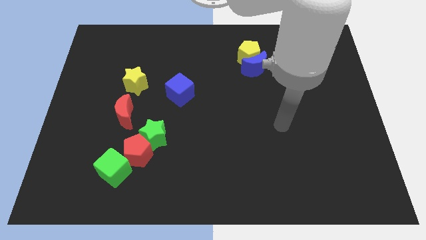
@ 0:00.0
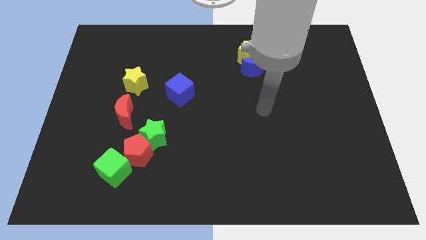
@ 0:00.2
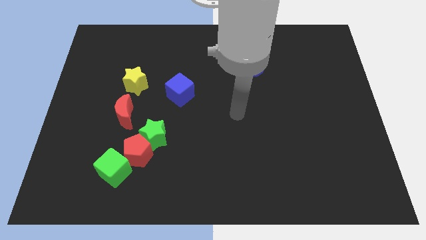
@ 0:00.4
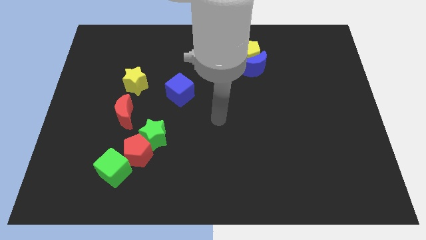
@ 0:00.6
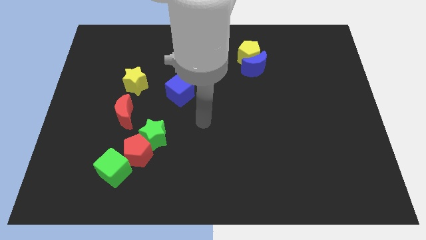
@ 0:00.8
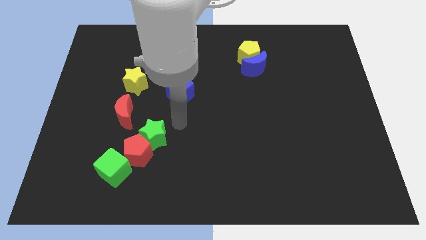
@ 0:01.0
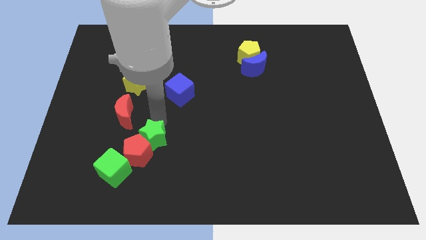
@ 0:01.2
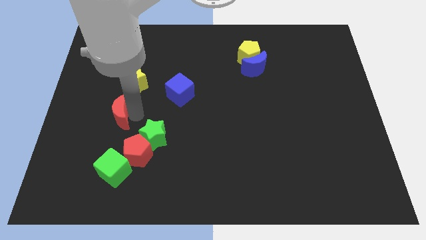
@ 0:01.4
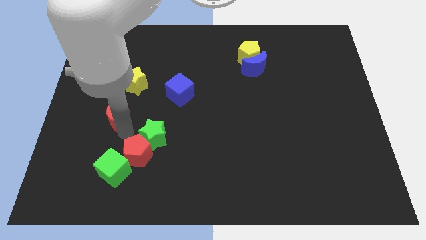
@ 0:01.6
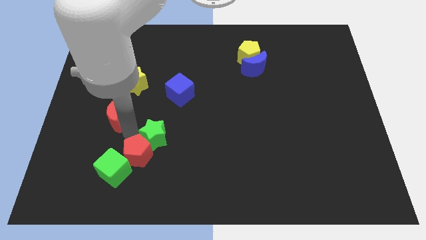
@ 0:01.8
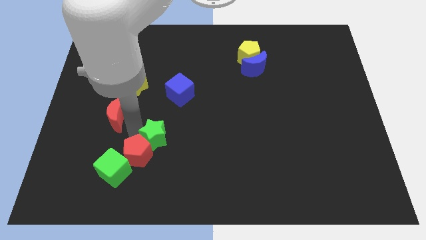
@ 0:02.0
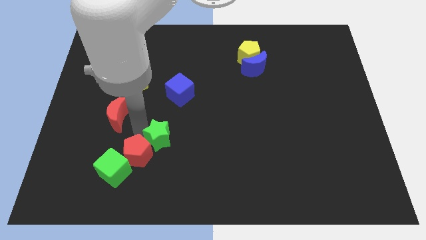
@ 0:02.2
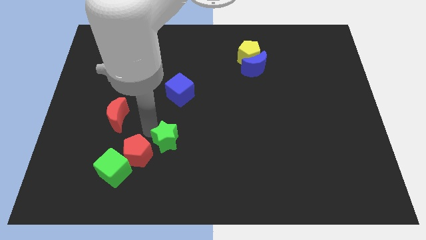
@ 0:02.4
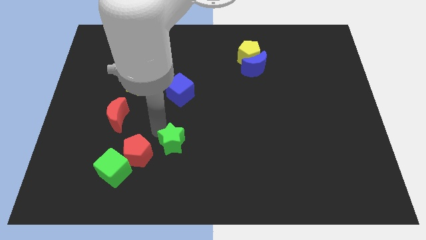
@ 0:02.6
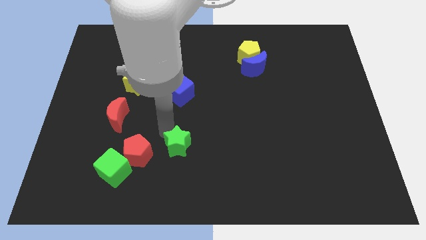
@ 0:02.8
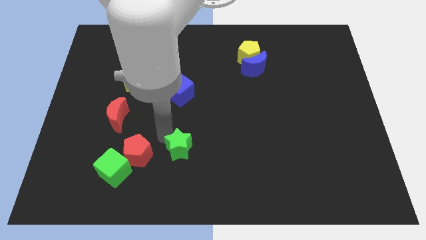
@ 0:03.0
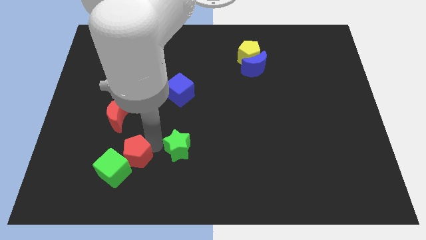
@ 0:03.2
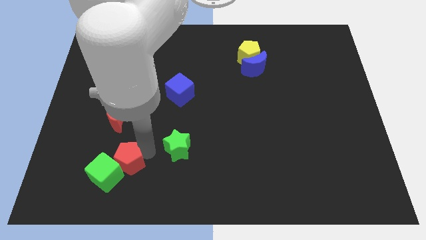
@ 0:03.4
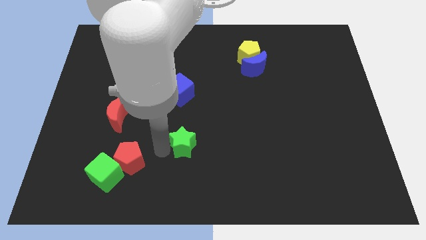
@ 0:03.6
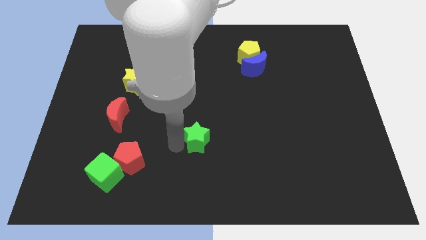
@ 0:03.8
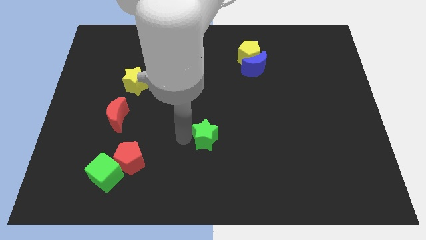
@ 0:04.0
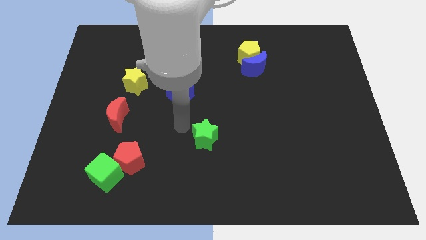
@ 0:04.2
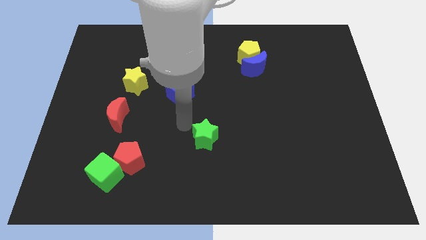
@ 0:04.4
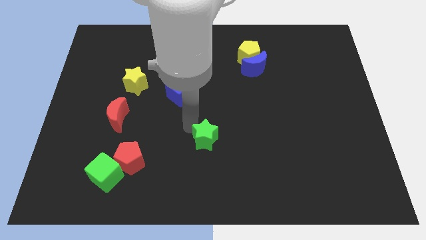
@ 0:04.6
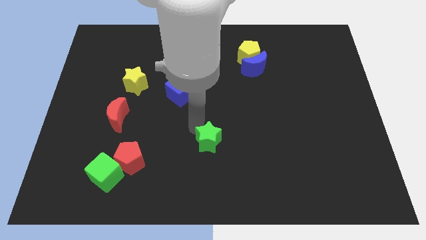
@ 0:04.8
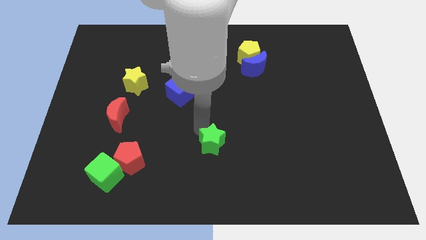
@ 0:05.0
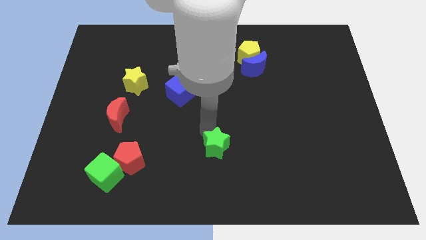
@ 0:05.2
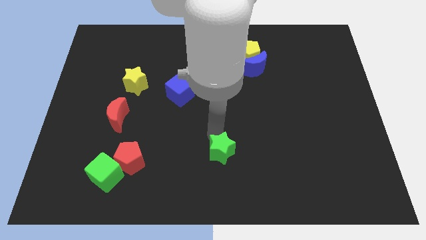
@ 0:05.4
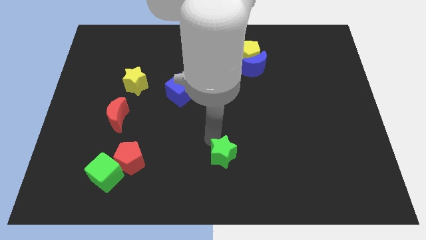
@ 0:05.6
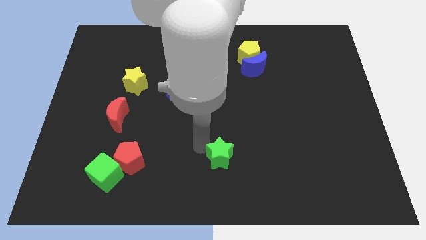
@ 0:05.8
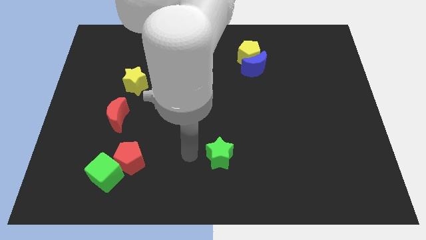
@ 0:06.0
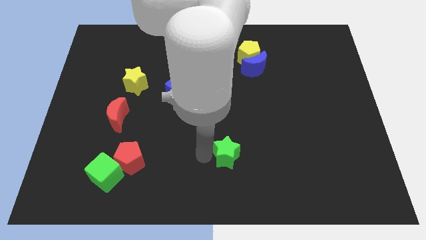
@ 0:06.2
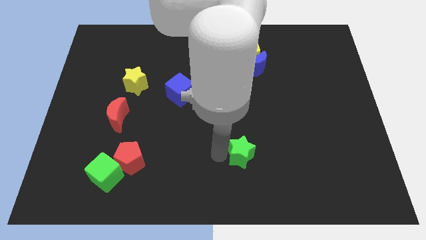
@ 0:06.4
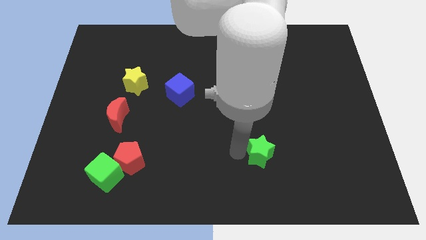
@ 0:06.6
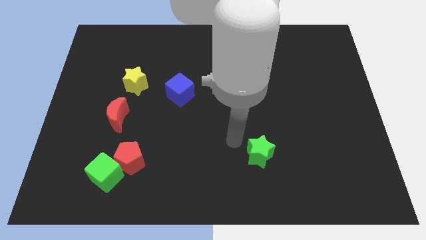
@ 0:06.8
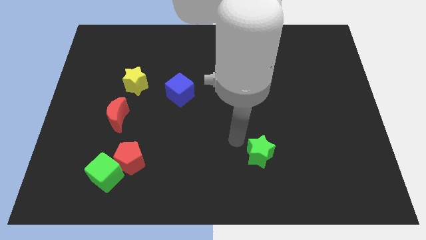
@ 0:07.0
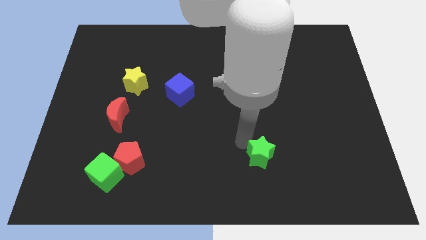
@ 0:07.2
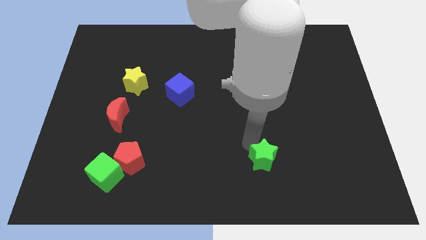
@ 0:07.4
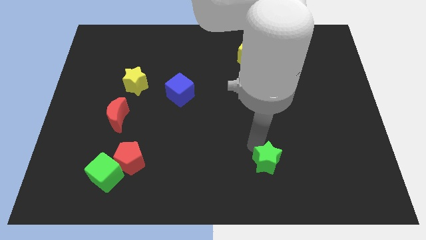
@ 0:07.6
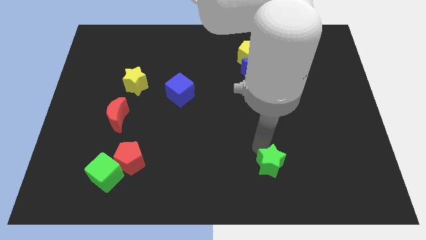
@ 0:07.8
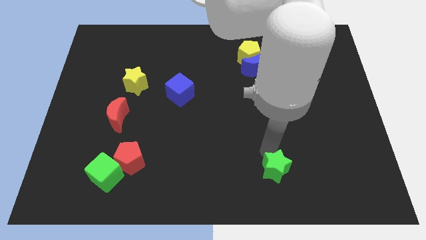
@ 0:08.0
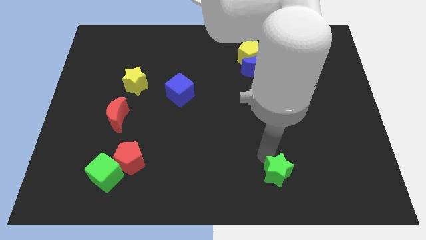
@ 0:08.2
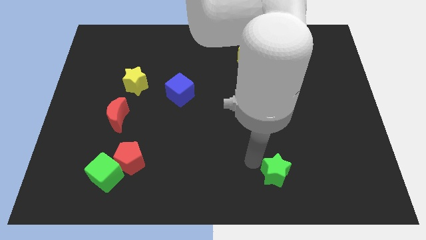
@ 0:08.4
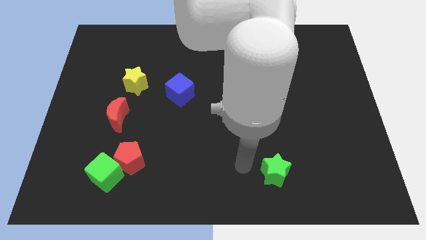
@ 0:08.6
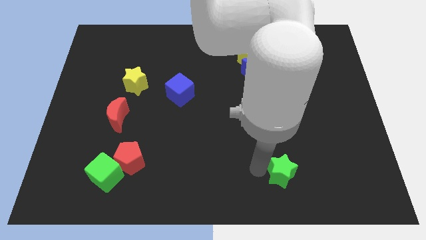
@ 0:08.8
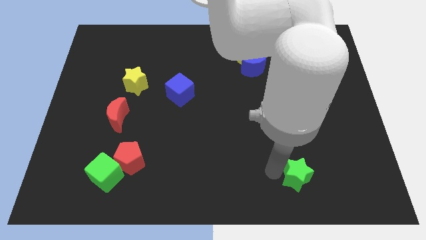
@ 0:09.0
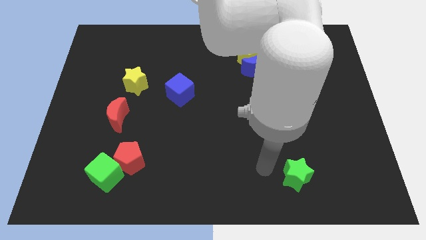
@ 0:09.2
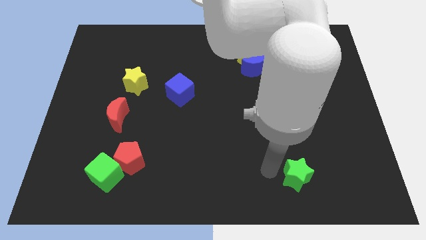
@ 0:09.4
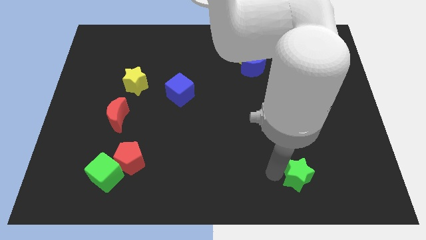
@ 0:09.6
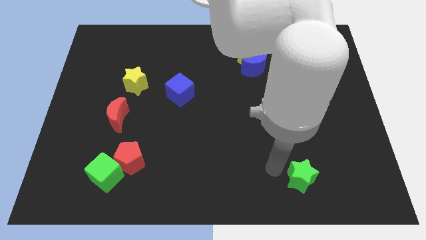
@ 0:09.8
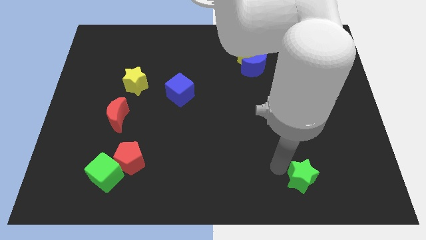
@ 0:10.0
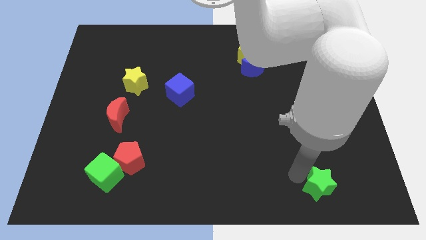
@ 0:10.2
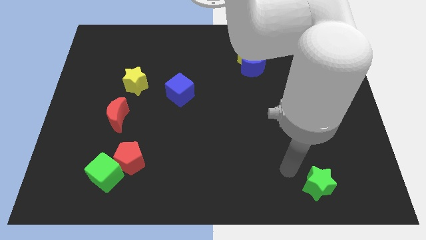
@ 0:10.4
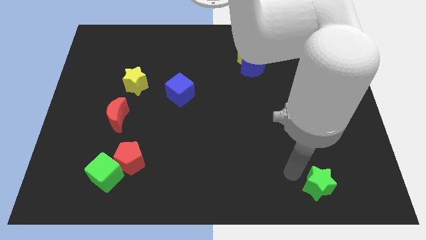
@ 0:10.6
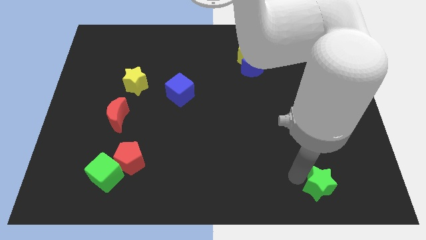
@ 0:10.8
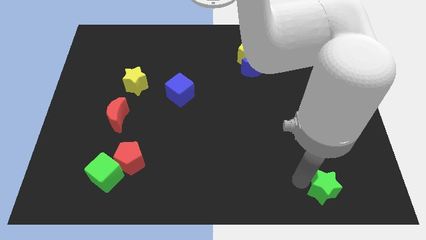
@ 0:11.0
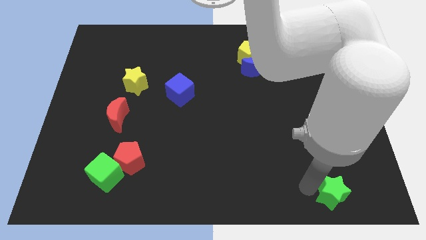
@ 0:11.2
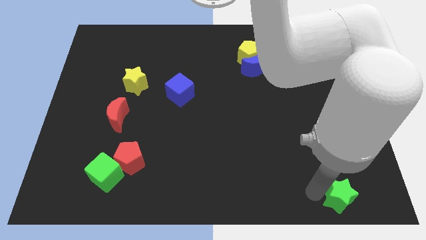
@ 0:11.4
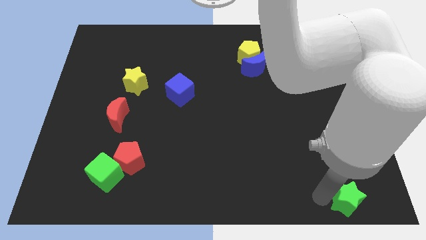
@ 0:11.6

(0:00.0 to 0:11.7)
put the green star to the bottom right

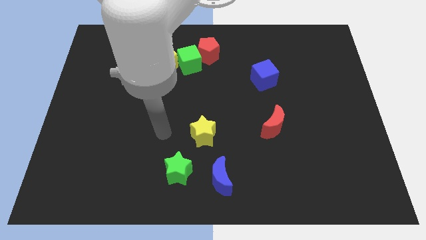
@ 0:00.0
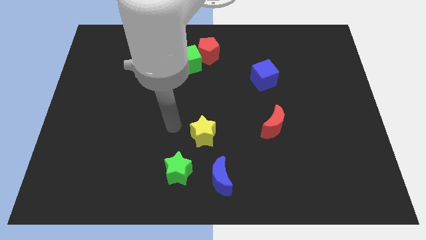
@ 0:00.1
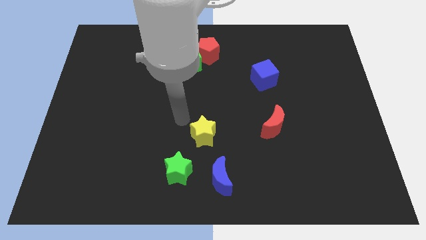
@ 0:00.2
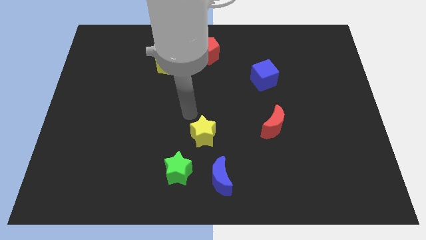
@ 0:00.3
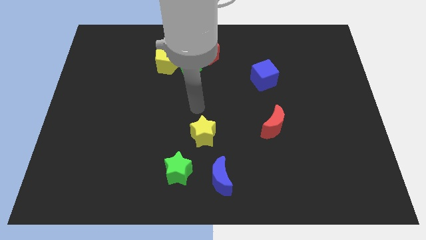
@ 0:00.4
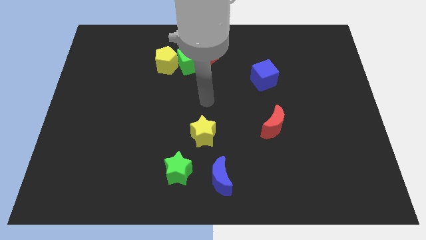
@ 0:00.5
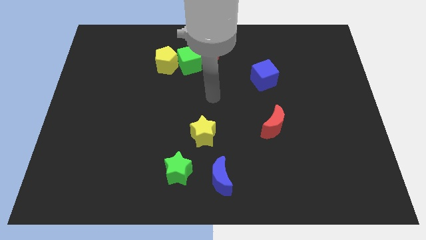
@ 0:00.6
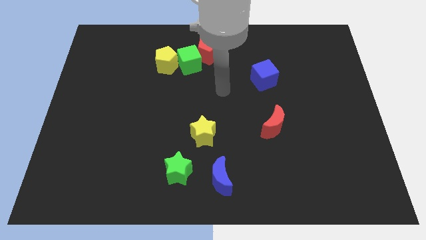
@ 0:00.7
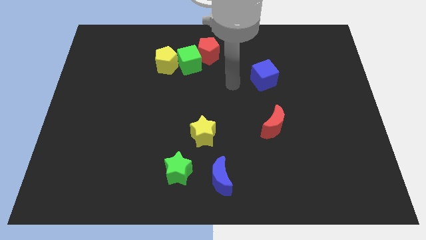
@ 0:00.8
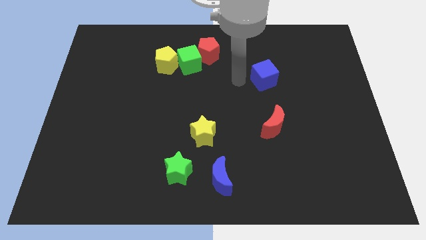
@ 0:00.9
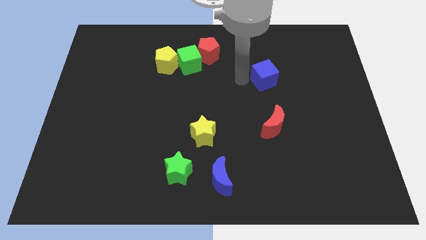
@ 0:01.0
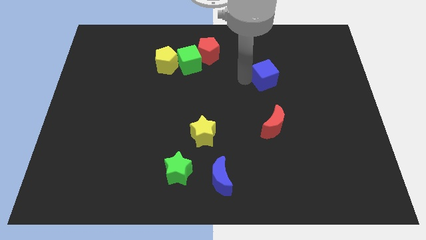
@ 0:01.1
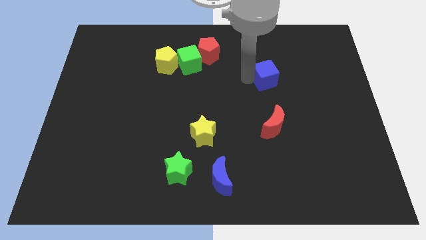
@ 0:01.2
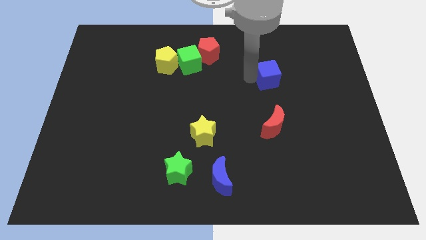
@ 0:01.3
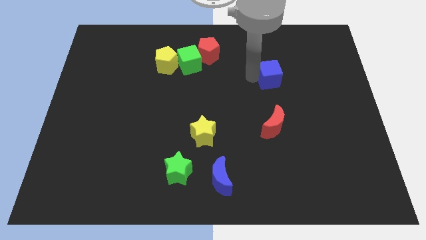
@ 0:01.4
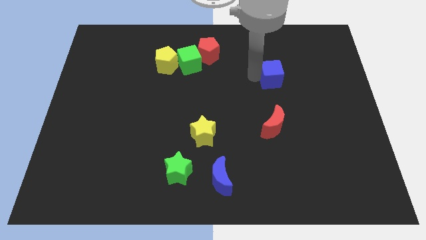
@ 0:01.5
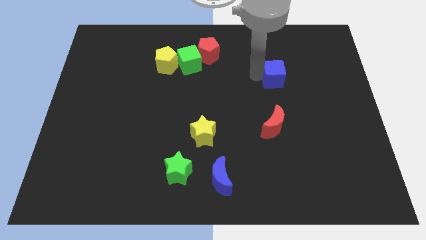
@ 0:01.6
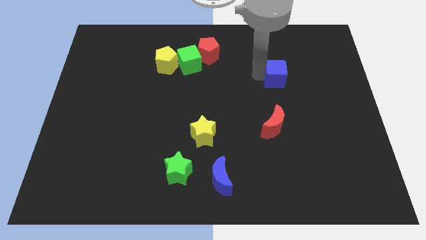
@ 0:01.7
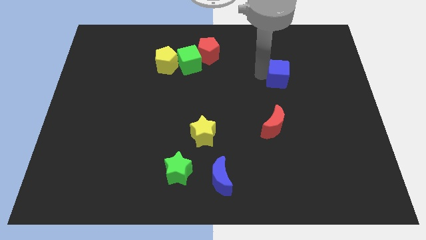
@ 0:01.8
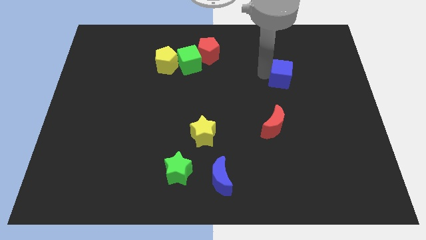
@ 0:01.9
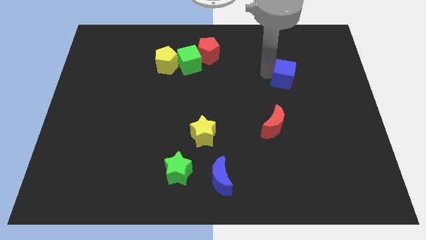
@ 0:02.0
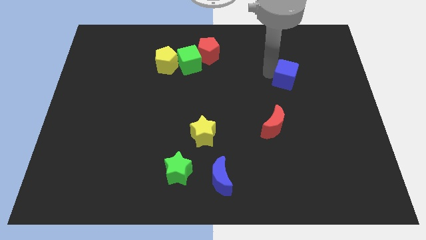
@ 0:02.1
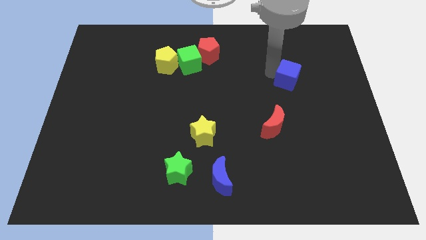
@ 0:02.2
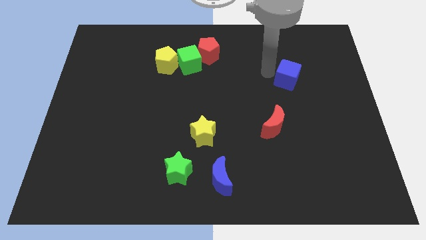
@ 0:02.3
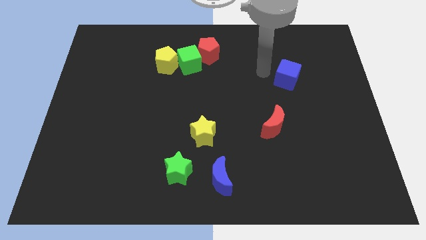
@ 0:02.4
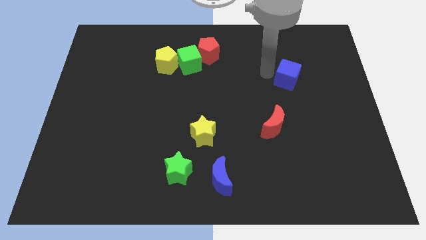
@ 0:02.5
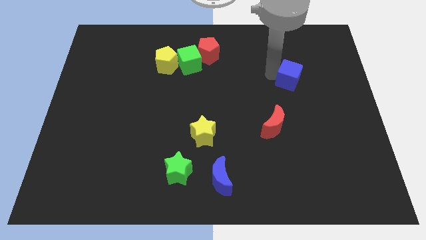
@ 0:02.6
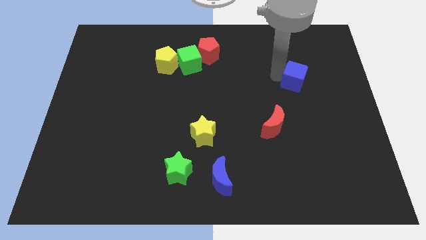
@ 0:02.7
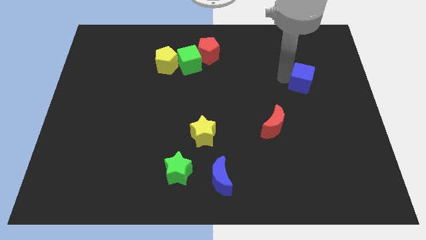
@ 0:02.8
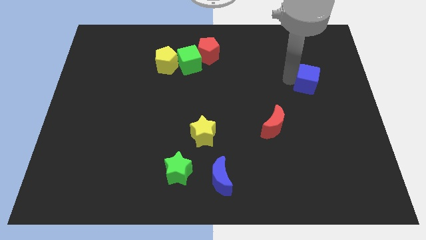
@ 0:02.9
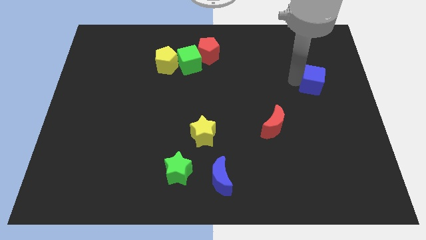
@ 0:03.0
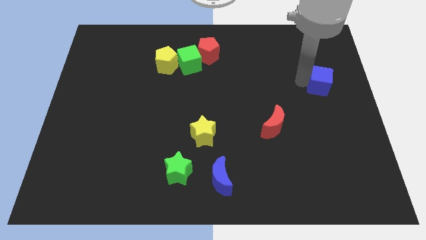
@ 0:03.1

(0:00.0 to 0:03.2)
move the blue cube to the right side
